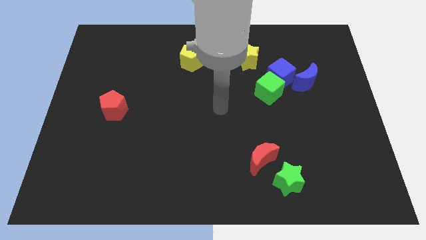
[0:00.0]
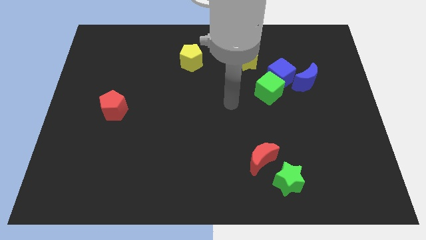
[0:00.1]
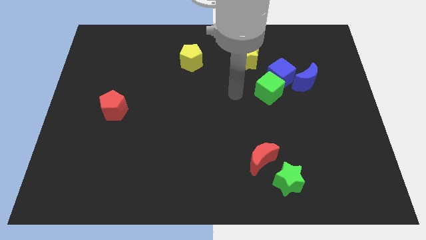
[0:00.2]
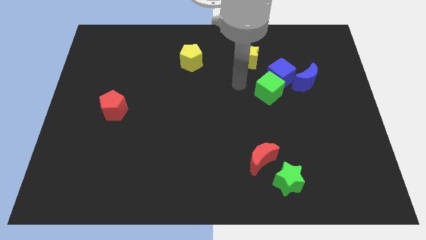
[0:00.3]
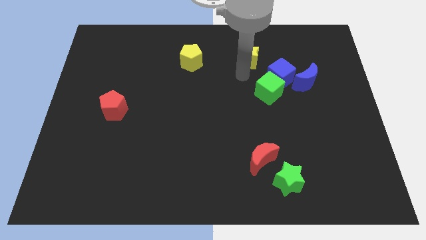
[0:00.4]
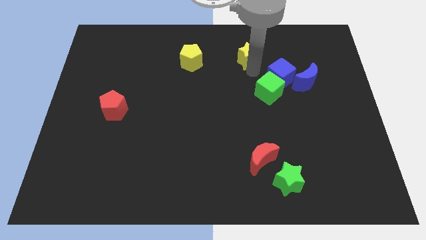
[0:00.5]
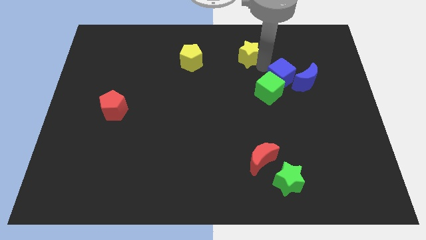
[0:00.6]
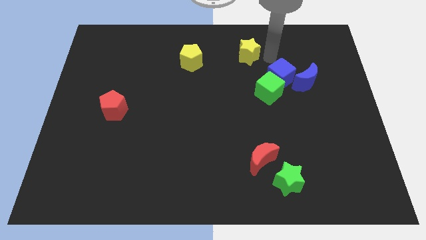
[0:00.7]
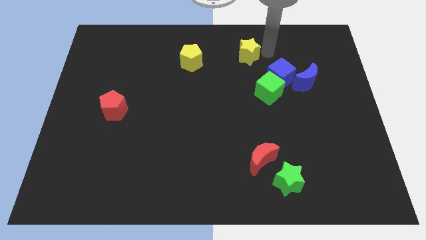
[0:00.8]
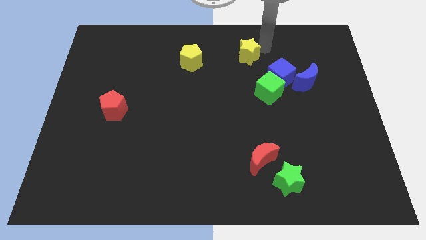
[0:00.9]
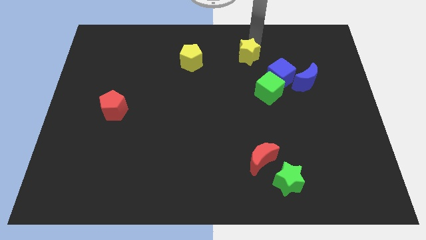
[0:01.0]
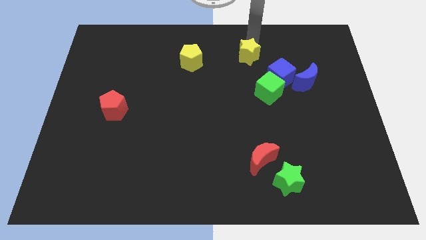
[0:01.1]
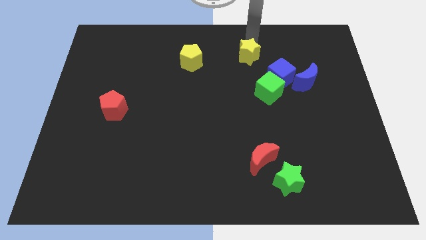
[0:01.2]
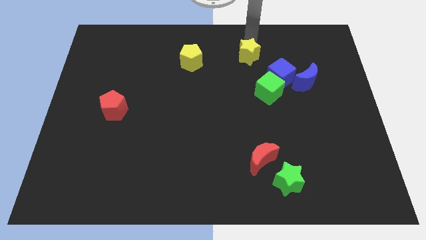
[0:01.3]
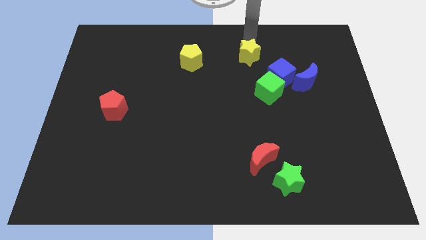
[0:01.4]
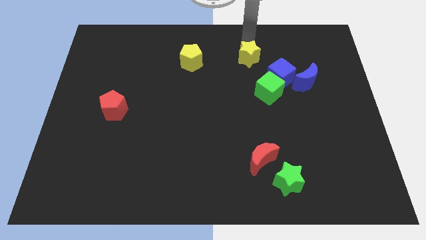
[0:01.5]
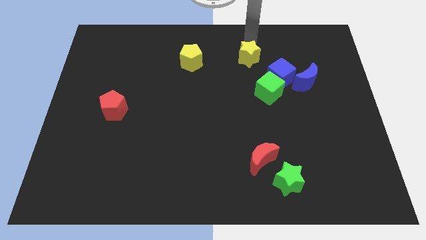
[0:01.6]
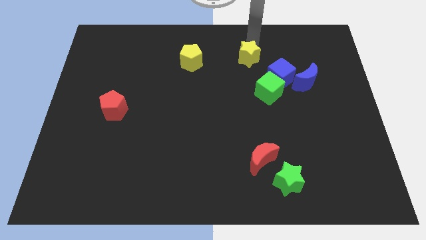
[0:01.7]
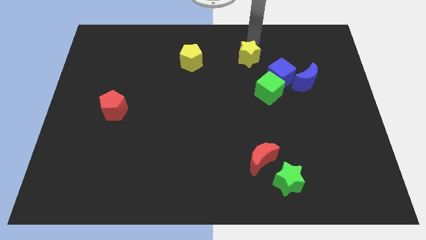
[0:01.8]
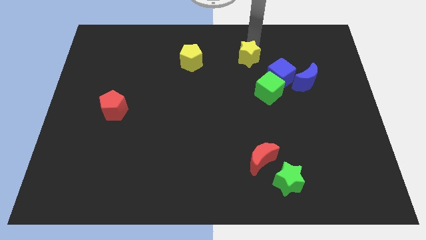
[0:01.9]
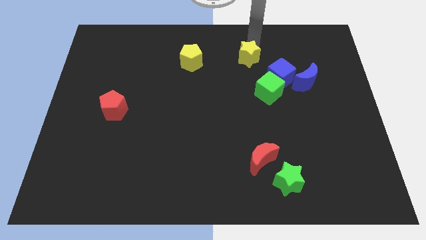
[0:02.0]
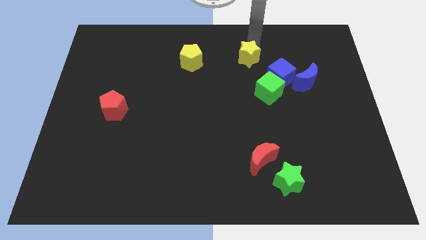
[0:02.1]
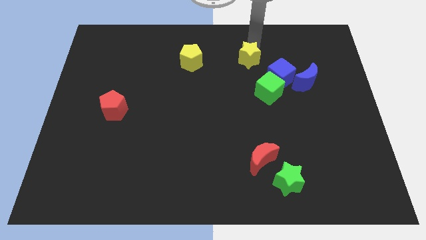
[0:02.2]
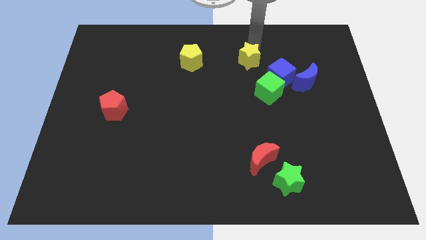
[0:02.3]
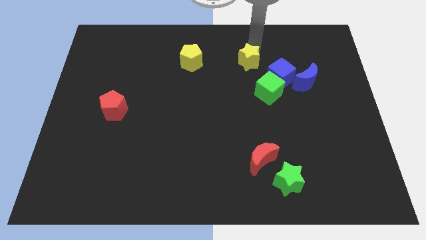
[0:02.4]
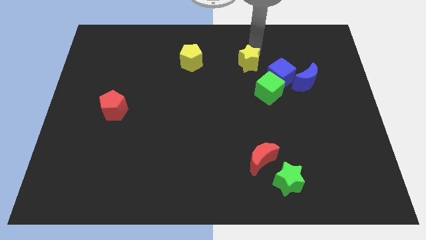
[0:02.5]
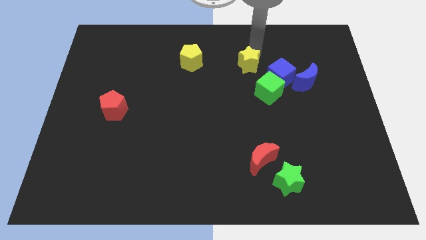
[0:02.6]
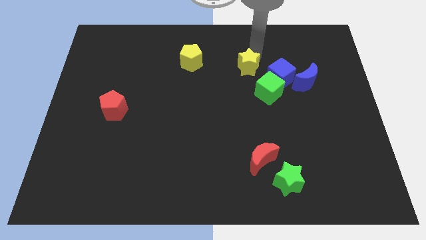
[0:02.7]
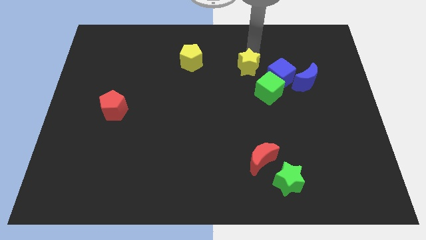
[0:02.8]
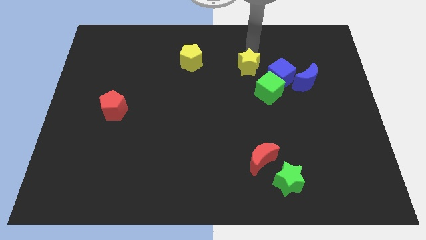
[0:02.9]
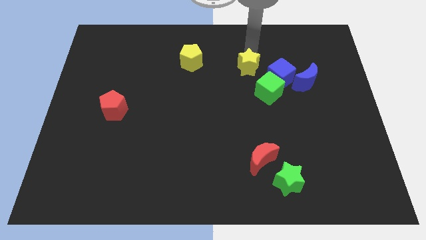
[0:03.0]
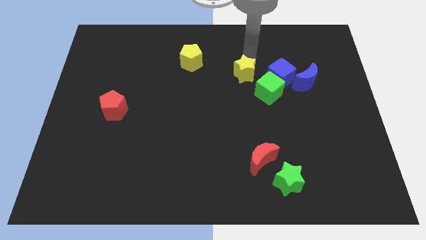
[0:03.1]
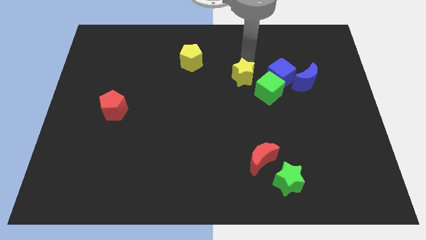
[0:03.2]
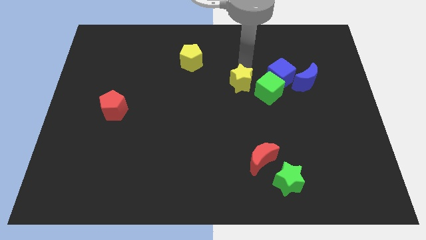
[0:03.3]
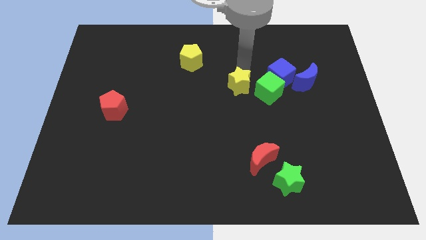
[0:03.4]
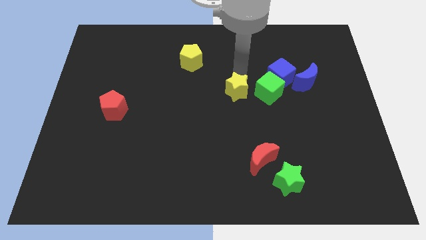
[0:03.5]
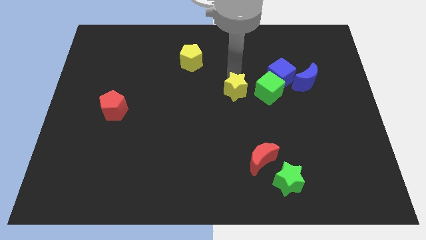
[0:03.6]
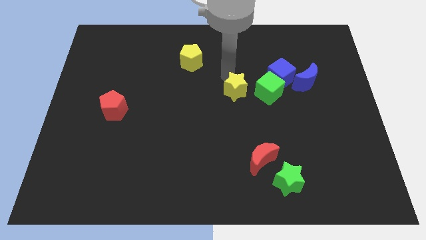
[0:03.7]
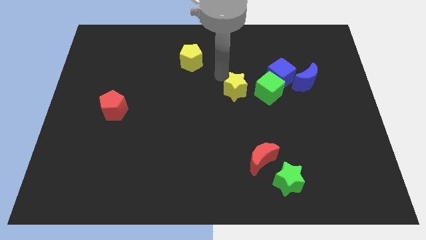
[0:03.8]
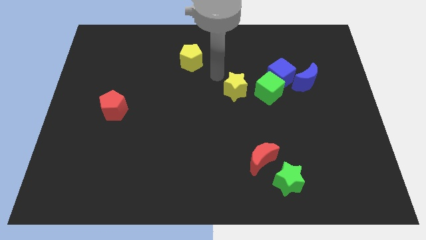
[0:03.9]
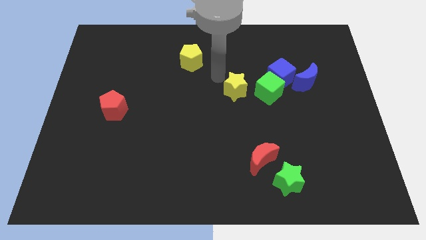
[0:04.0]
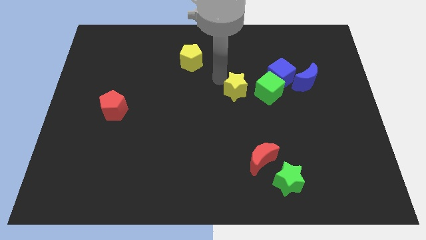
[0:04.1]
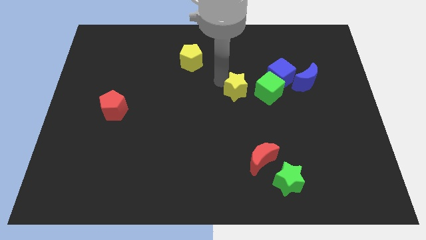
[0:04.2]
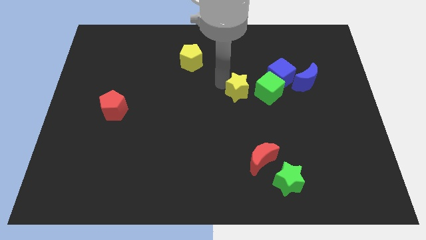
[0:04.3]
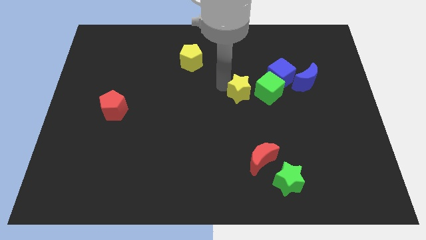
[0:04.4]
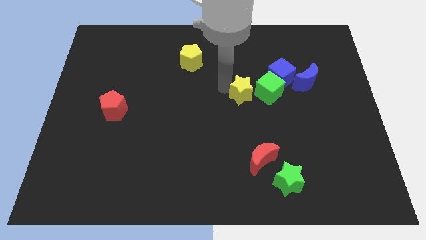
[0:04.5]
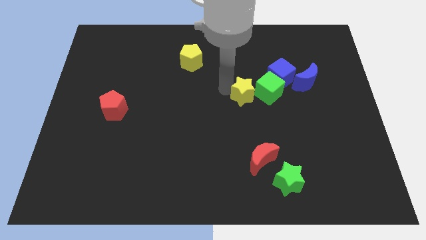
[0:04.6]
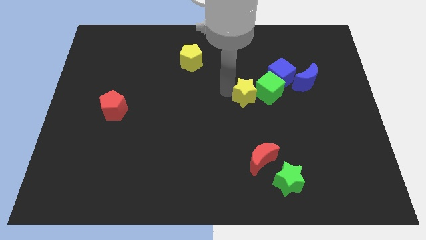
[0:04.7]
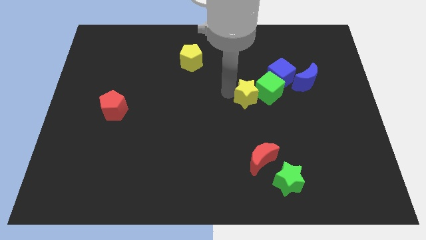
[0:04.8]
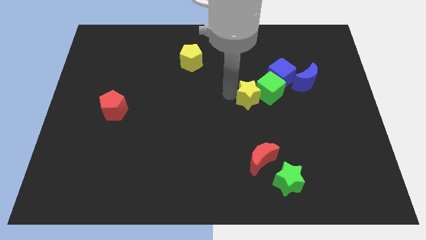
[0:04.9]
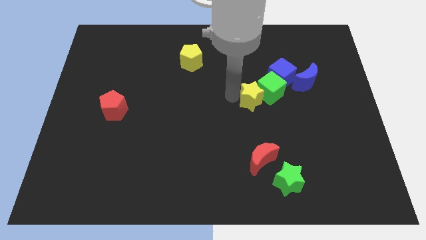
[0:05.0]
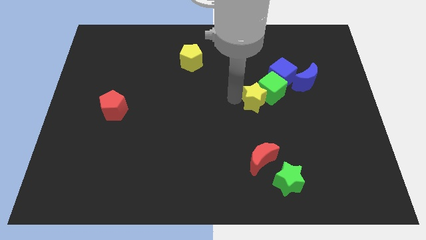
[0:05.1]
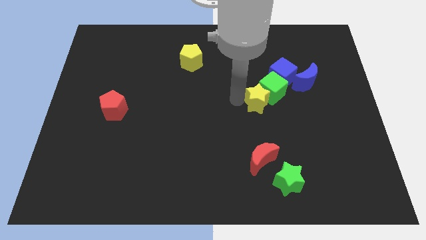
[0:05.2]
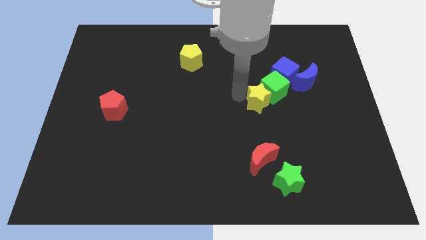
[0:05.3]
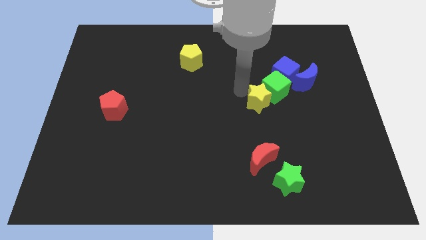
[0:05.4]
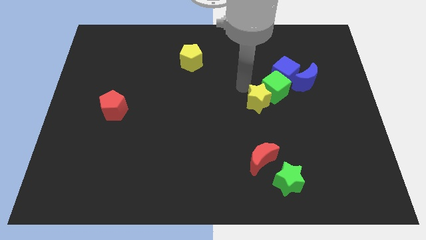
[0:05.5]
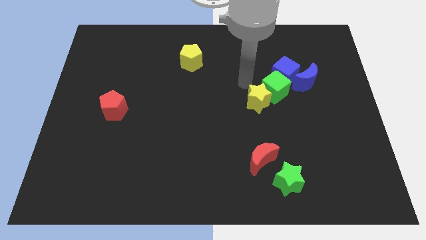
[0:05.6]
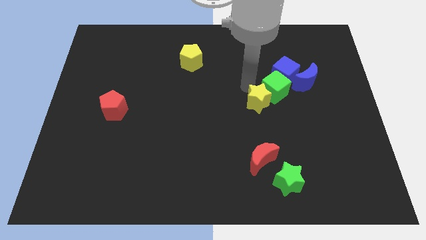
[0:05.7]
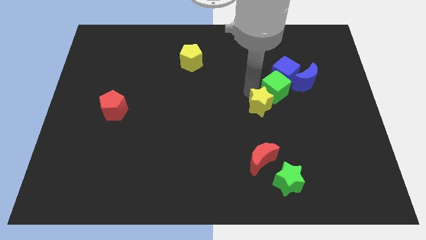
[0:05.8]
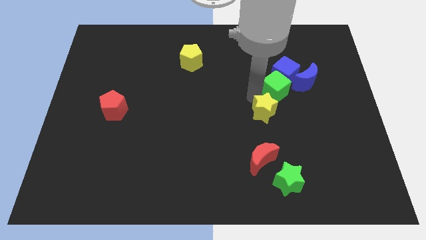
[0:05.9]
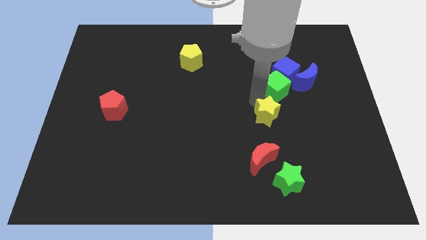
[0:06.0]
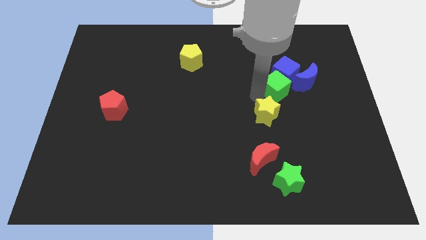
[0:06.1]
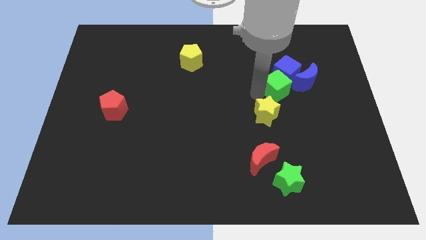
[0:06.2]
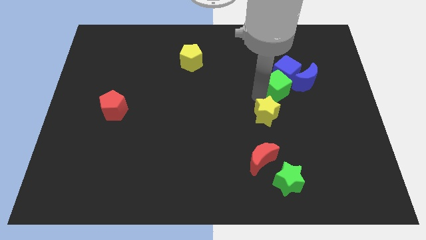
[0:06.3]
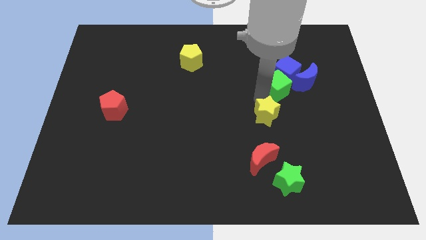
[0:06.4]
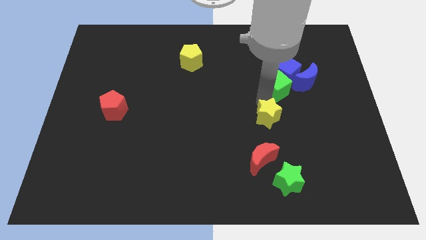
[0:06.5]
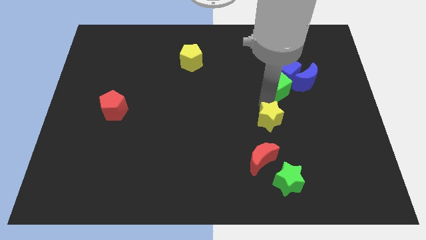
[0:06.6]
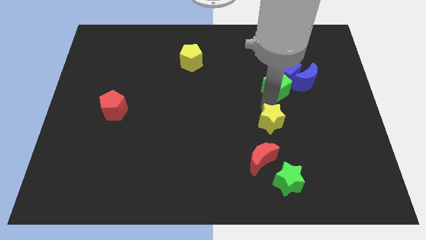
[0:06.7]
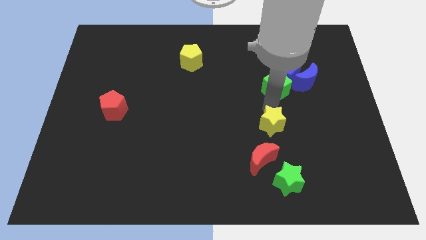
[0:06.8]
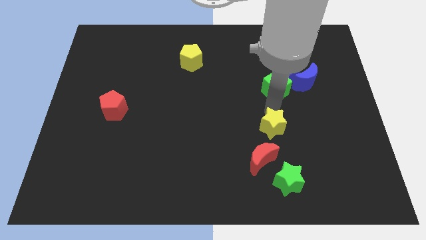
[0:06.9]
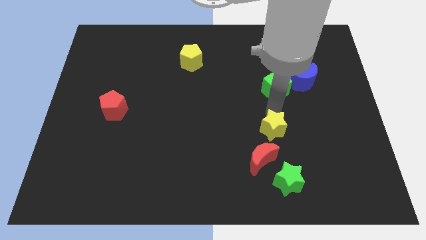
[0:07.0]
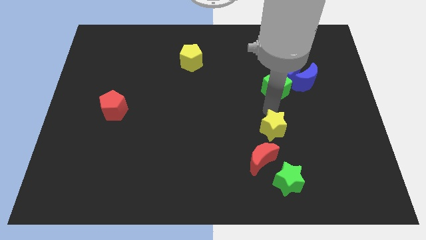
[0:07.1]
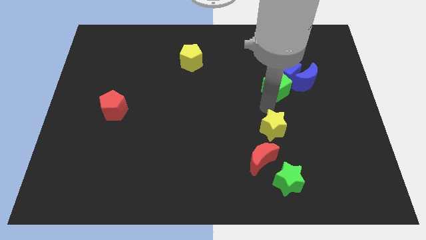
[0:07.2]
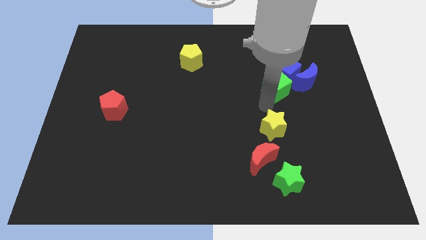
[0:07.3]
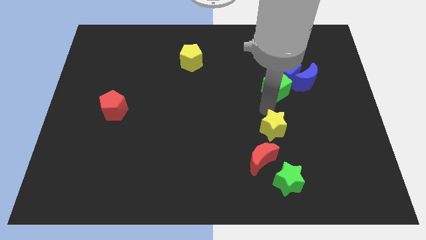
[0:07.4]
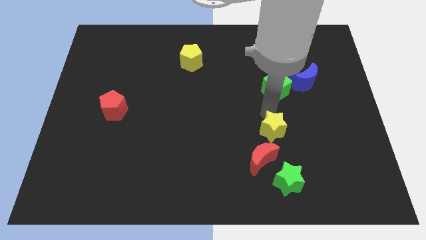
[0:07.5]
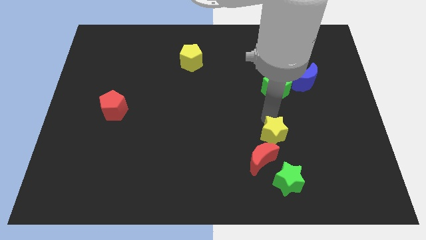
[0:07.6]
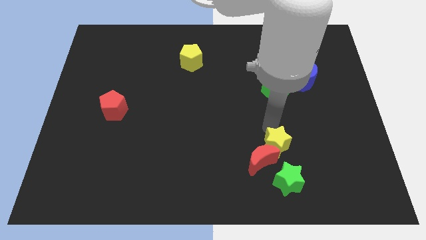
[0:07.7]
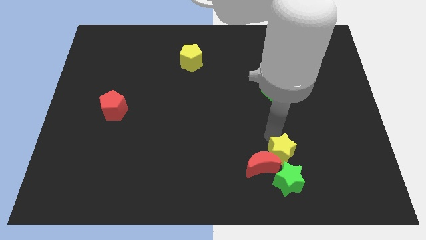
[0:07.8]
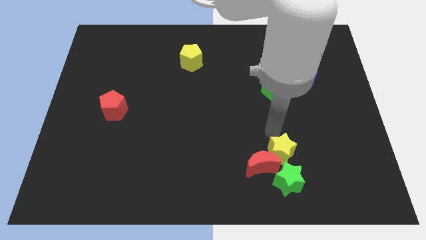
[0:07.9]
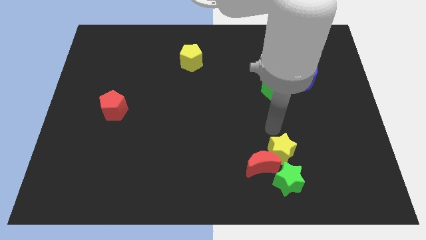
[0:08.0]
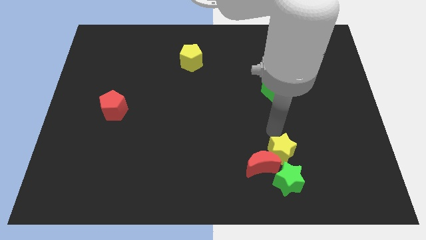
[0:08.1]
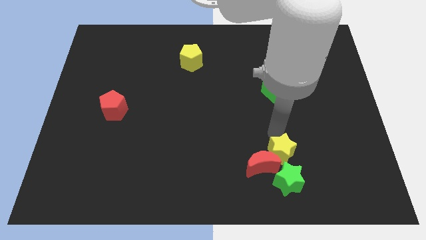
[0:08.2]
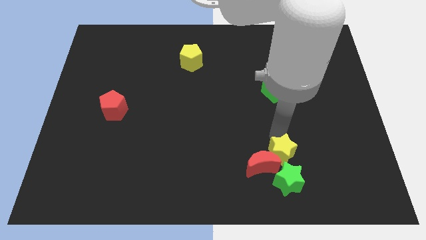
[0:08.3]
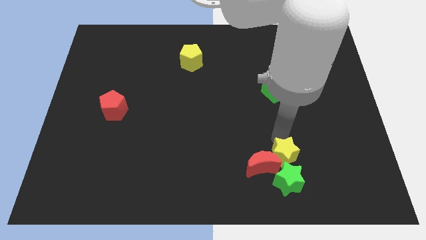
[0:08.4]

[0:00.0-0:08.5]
move the yellow star to the green star
